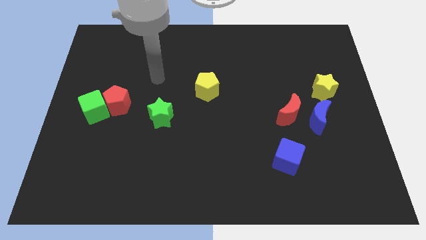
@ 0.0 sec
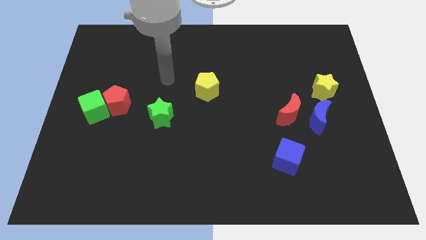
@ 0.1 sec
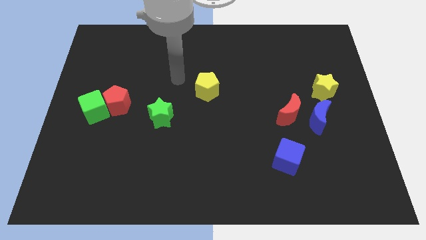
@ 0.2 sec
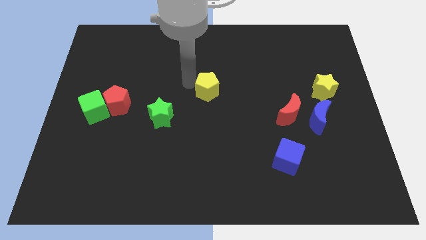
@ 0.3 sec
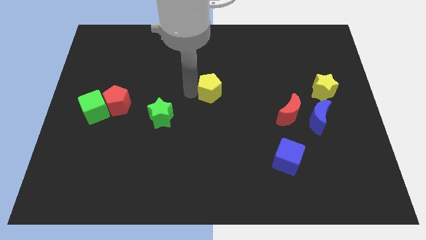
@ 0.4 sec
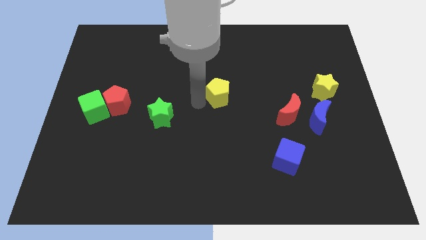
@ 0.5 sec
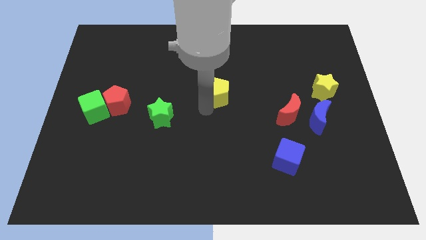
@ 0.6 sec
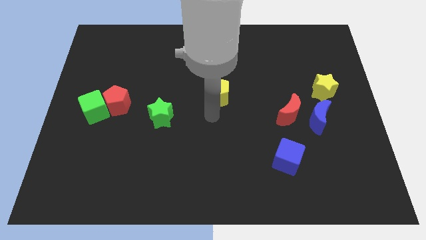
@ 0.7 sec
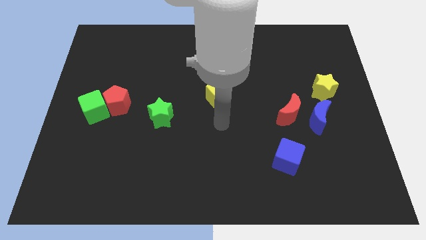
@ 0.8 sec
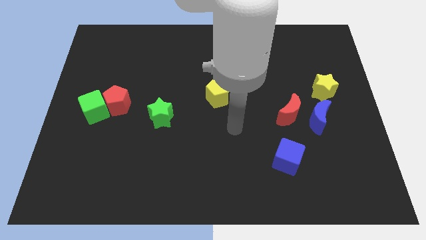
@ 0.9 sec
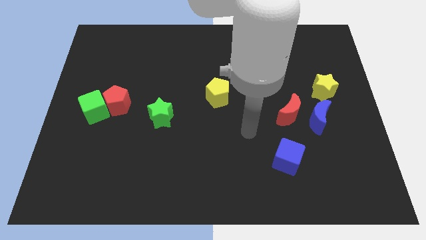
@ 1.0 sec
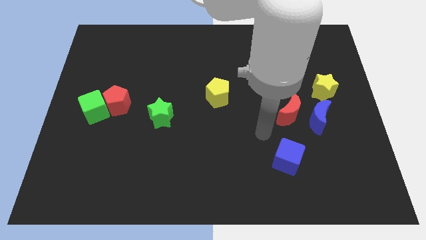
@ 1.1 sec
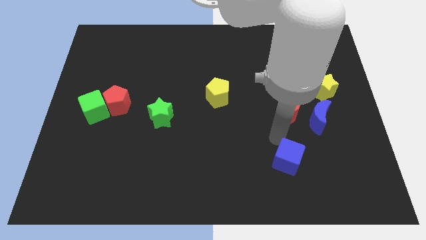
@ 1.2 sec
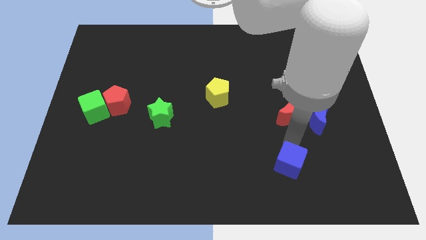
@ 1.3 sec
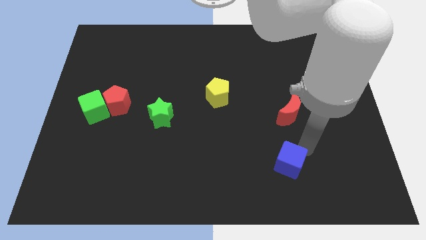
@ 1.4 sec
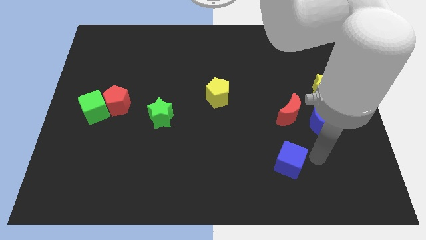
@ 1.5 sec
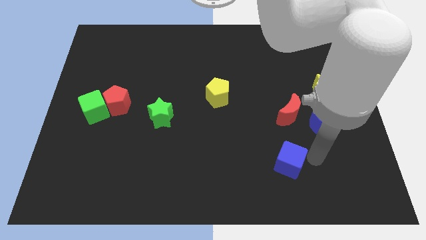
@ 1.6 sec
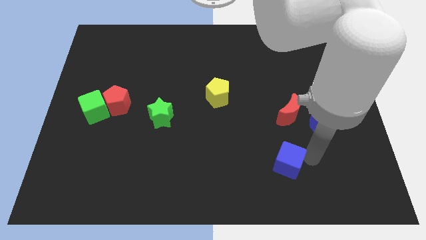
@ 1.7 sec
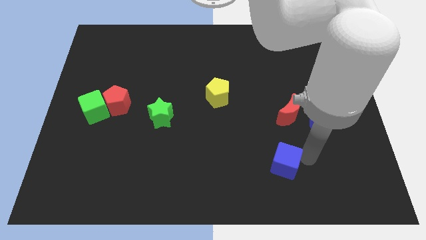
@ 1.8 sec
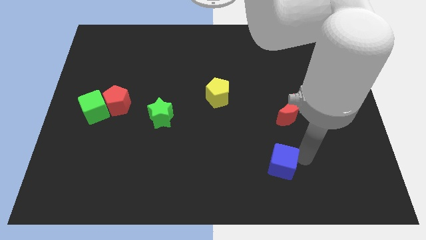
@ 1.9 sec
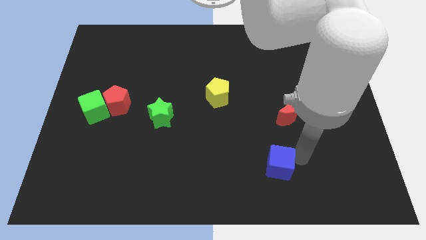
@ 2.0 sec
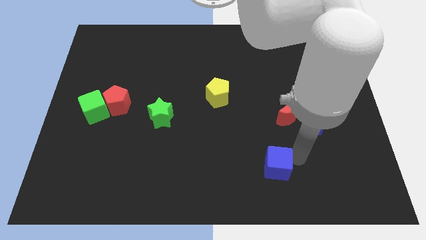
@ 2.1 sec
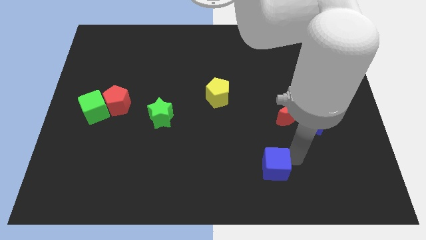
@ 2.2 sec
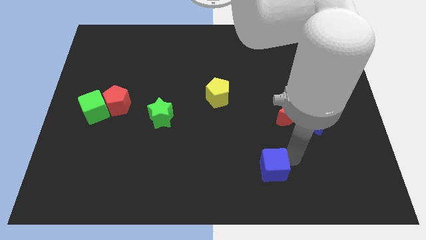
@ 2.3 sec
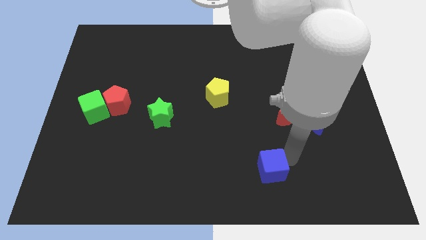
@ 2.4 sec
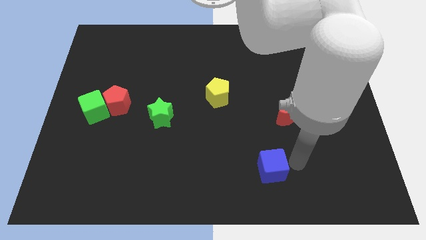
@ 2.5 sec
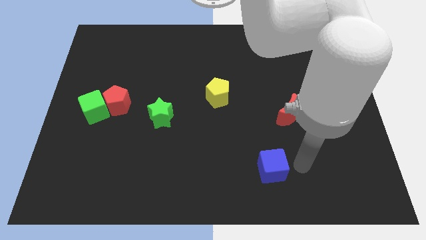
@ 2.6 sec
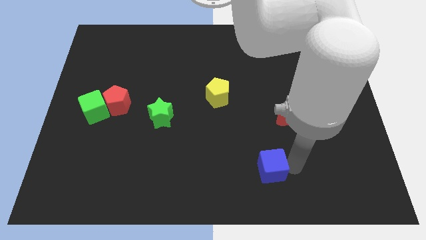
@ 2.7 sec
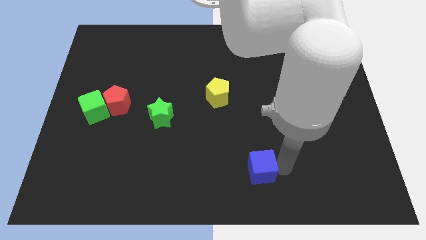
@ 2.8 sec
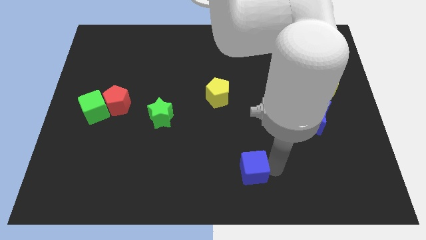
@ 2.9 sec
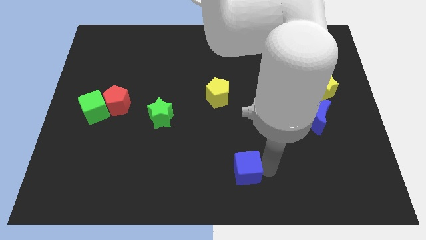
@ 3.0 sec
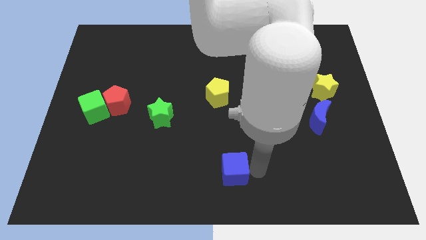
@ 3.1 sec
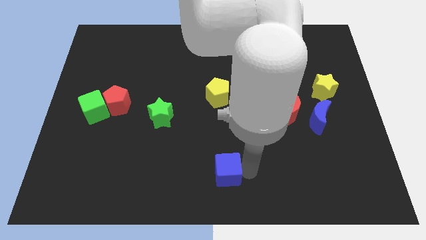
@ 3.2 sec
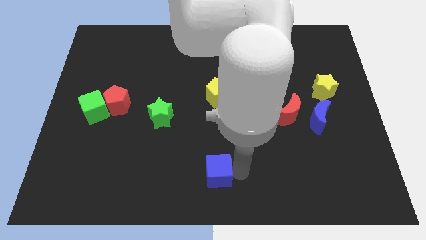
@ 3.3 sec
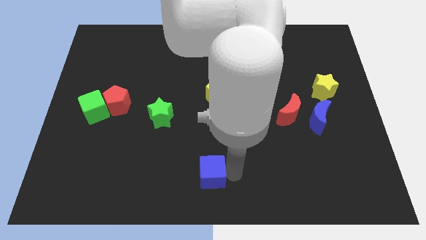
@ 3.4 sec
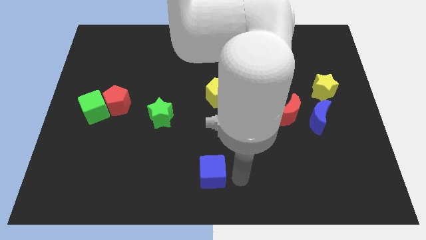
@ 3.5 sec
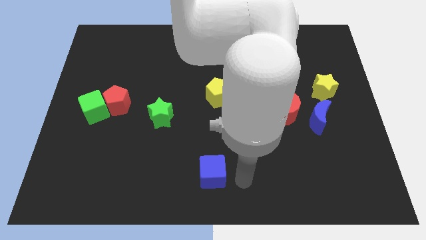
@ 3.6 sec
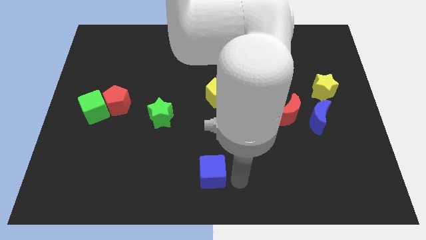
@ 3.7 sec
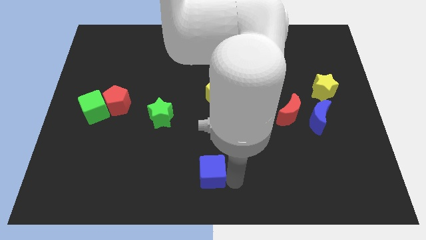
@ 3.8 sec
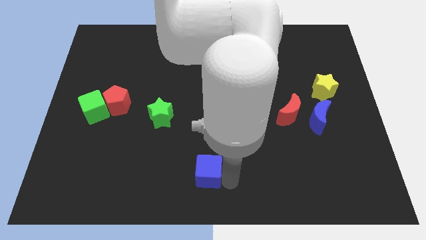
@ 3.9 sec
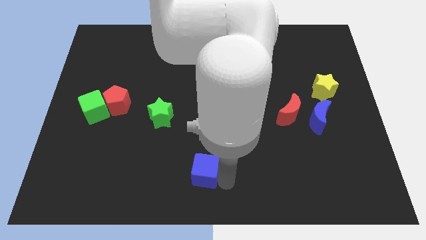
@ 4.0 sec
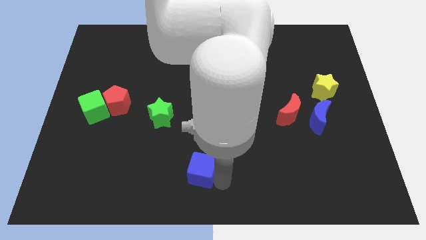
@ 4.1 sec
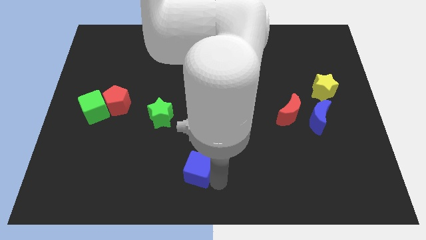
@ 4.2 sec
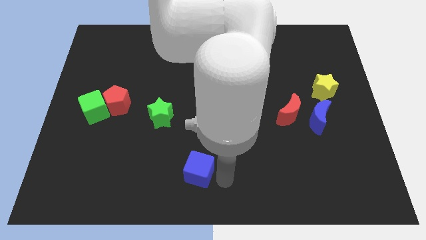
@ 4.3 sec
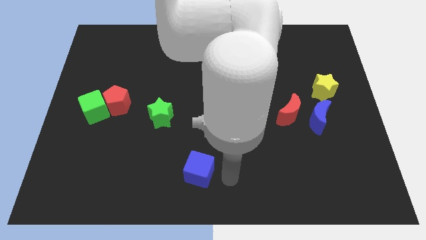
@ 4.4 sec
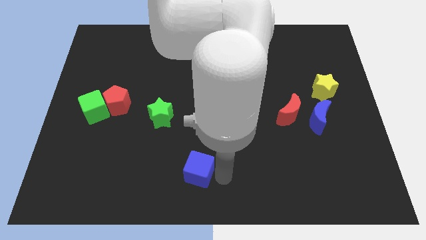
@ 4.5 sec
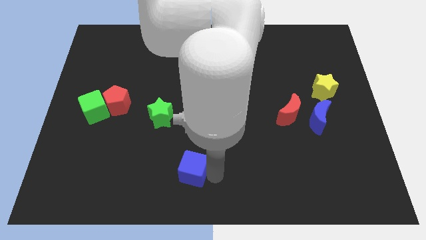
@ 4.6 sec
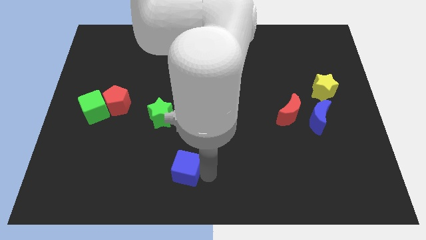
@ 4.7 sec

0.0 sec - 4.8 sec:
slide the blue cube to the left

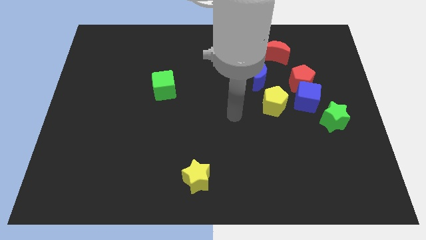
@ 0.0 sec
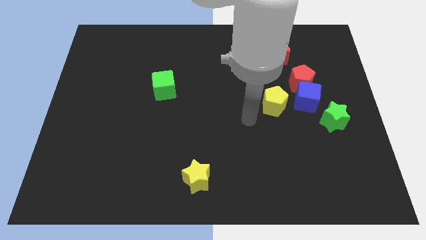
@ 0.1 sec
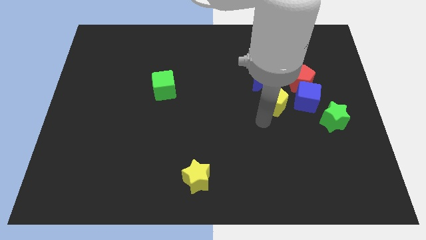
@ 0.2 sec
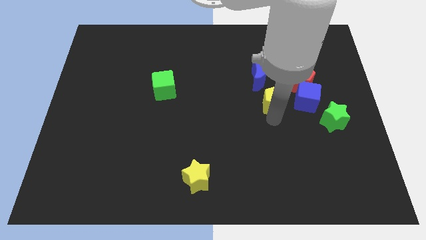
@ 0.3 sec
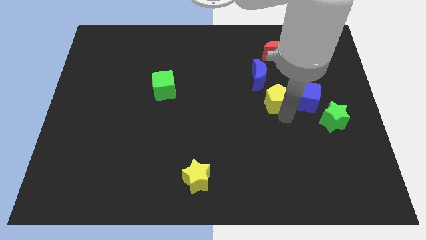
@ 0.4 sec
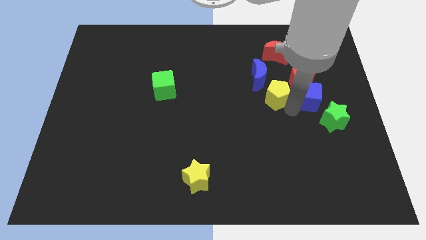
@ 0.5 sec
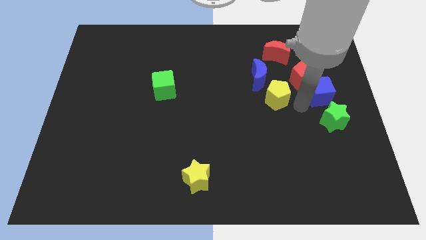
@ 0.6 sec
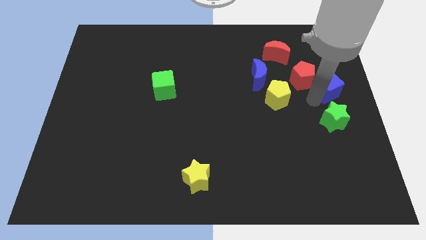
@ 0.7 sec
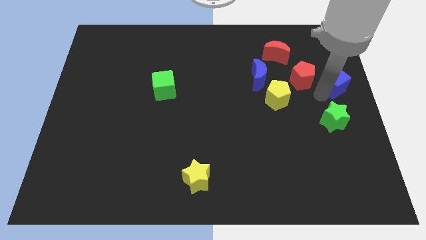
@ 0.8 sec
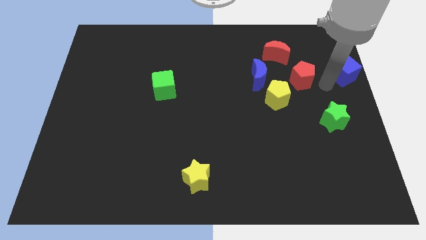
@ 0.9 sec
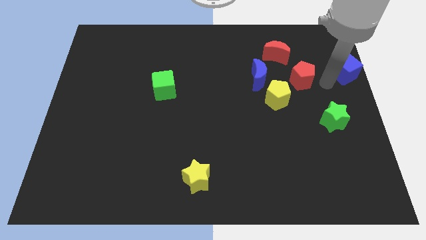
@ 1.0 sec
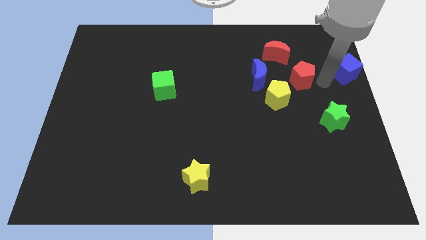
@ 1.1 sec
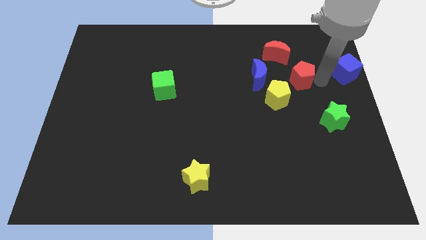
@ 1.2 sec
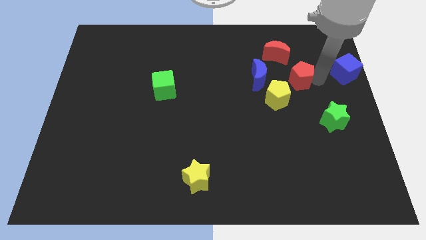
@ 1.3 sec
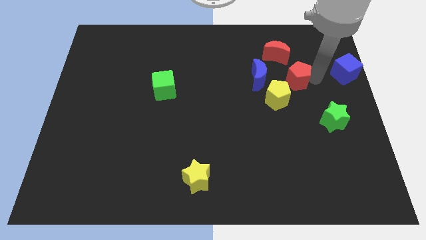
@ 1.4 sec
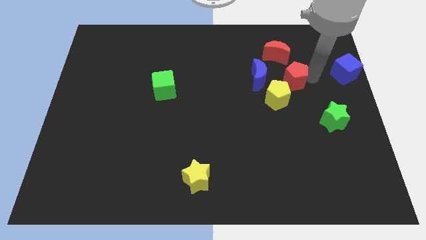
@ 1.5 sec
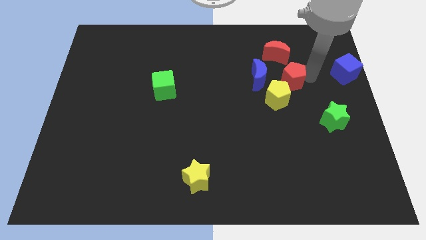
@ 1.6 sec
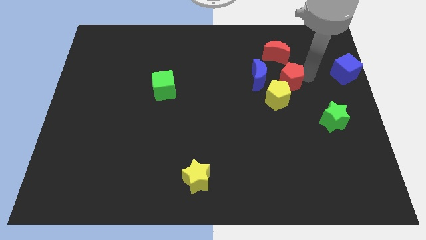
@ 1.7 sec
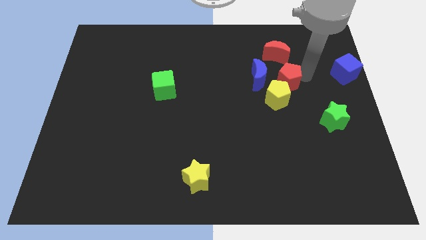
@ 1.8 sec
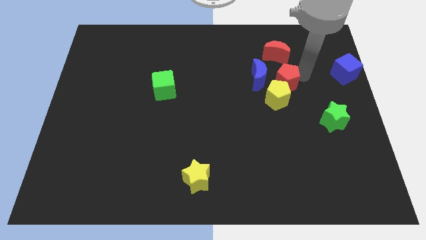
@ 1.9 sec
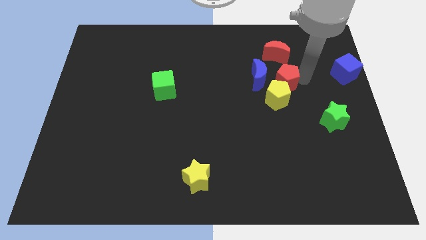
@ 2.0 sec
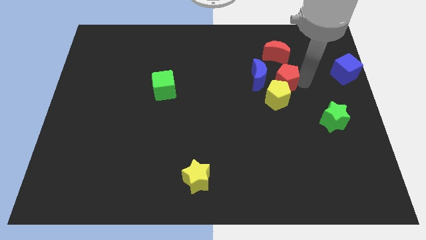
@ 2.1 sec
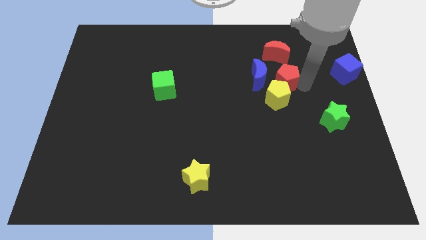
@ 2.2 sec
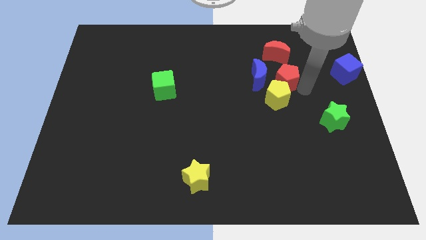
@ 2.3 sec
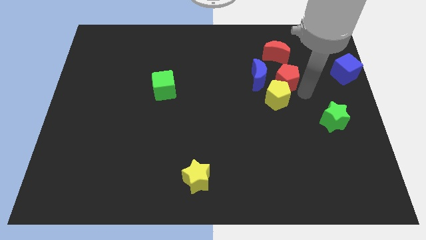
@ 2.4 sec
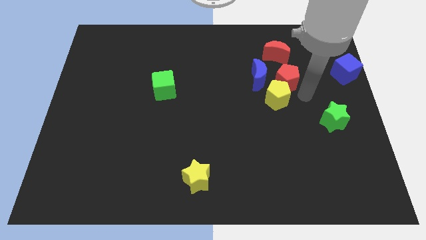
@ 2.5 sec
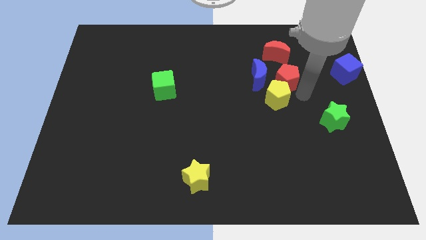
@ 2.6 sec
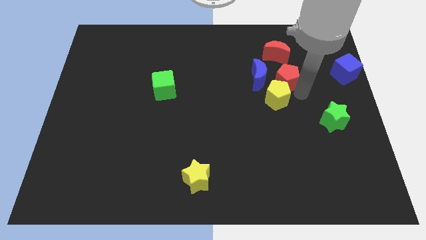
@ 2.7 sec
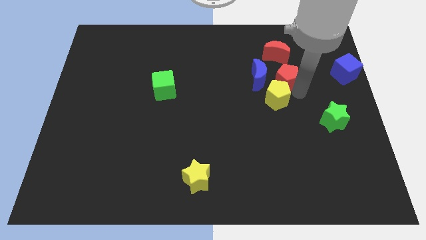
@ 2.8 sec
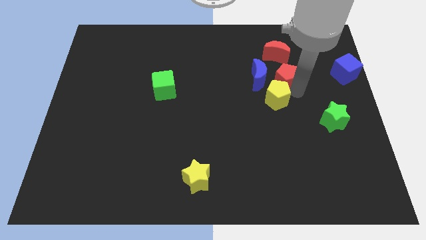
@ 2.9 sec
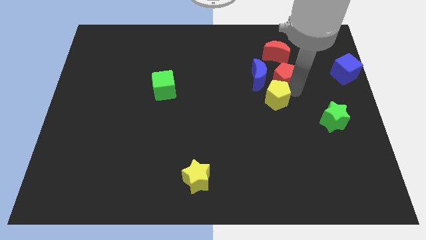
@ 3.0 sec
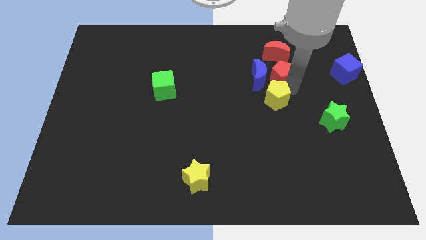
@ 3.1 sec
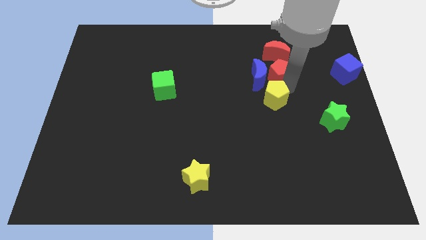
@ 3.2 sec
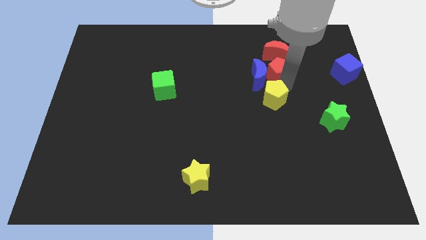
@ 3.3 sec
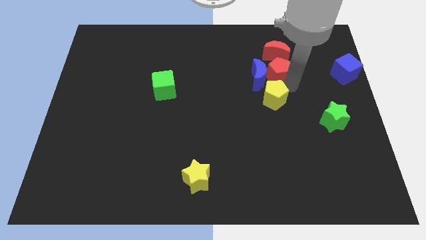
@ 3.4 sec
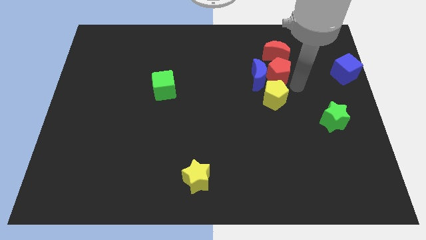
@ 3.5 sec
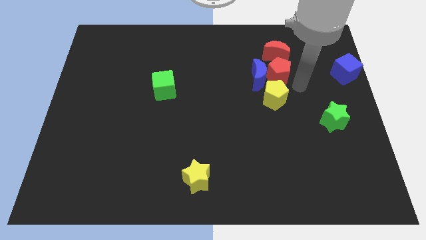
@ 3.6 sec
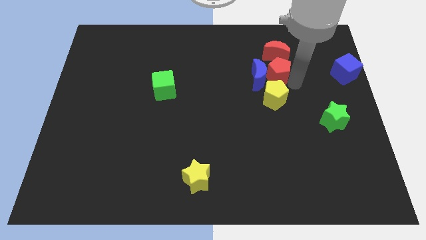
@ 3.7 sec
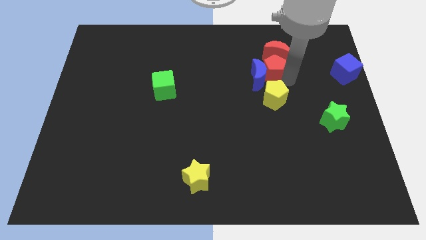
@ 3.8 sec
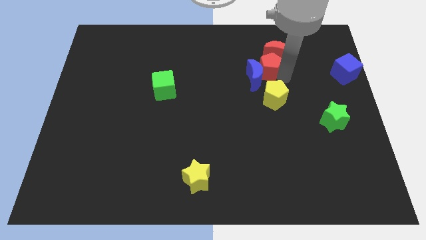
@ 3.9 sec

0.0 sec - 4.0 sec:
slightly move the red pentagon to the left
